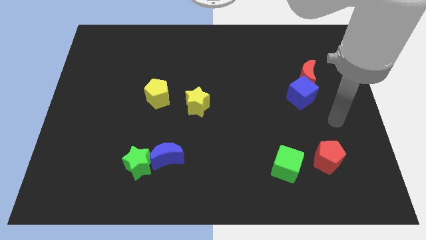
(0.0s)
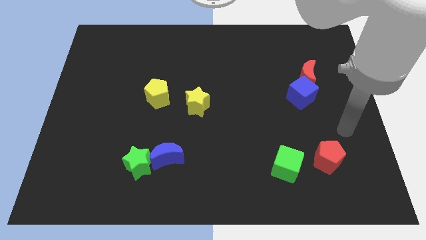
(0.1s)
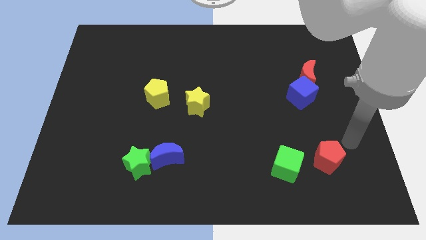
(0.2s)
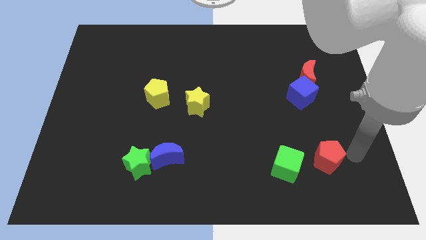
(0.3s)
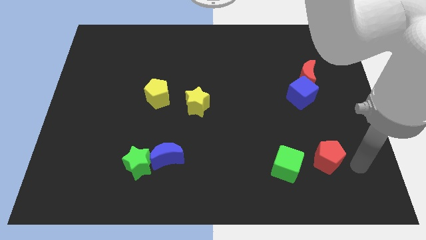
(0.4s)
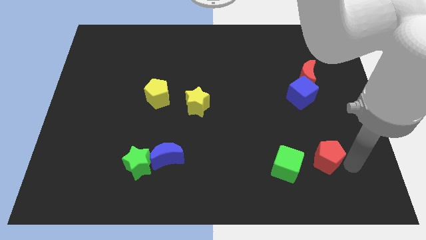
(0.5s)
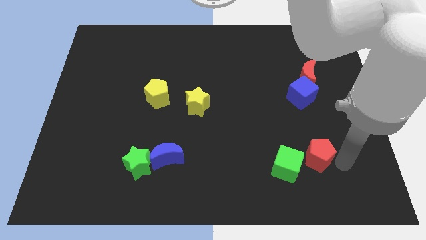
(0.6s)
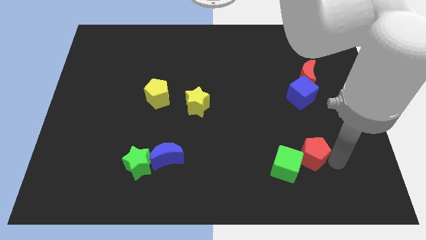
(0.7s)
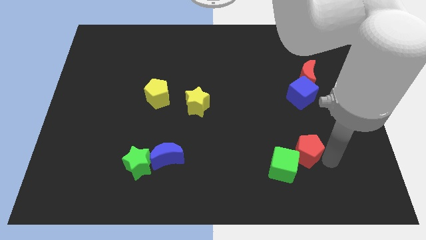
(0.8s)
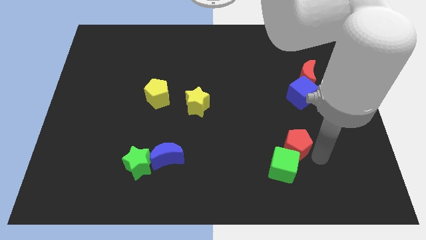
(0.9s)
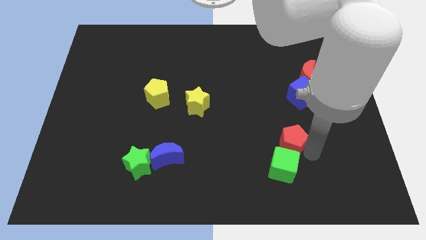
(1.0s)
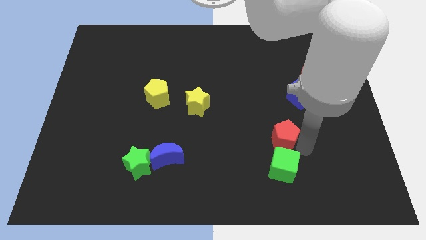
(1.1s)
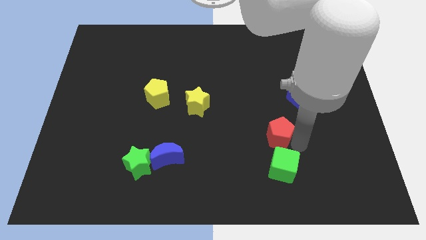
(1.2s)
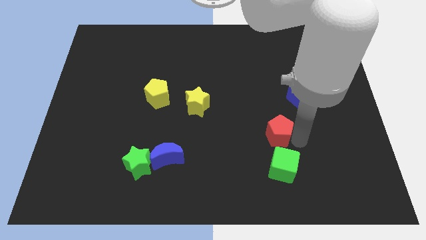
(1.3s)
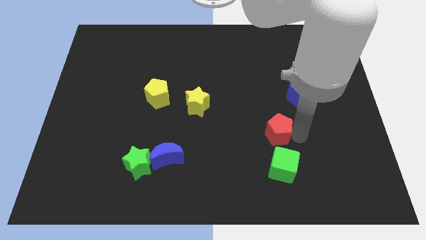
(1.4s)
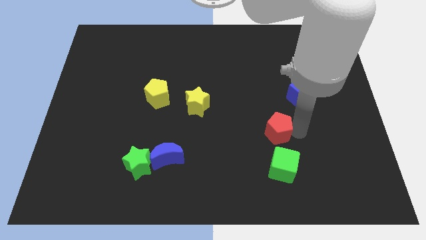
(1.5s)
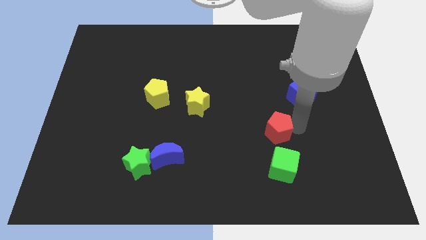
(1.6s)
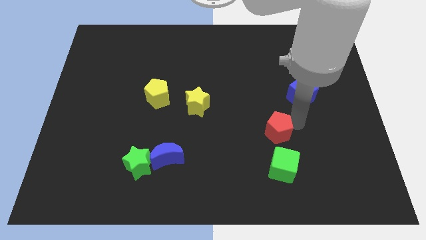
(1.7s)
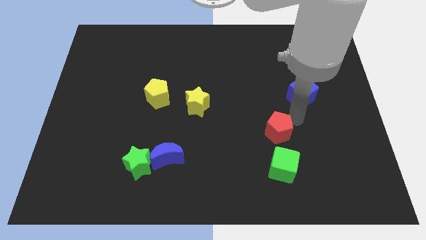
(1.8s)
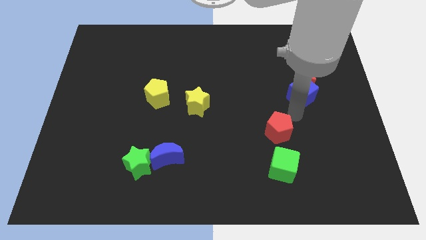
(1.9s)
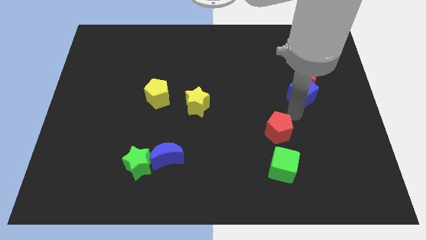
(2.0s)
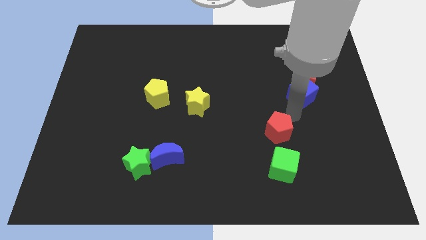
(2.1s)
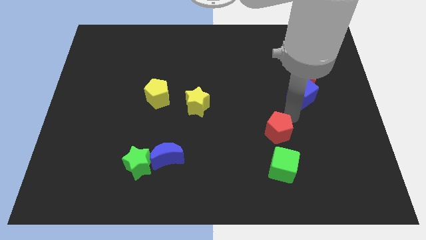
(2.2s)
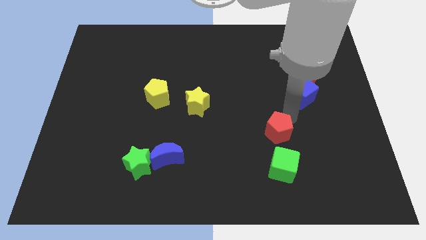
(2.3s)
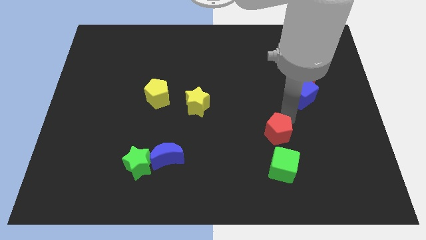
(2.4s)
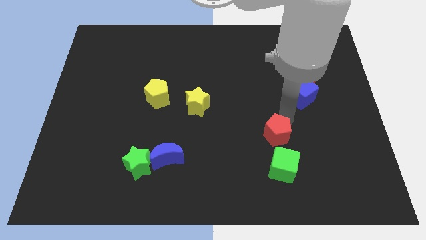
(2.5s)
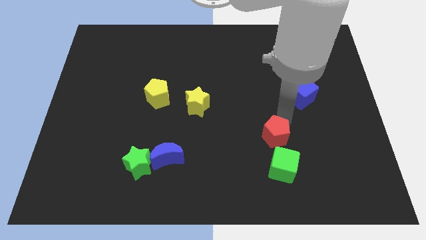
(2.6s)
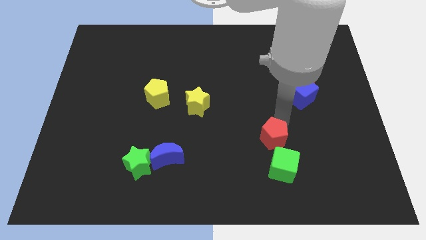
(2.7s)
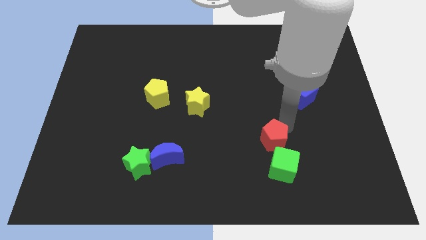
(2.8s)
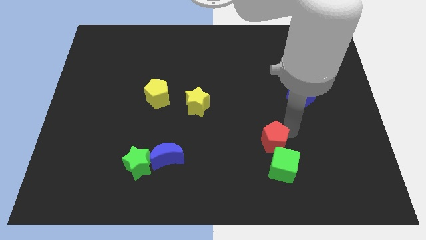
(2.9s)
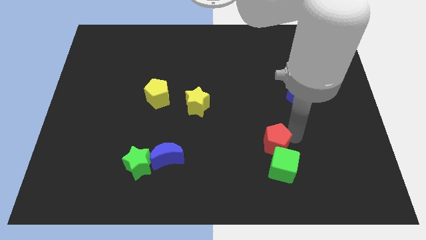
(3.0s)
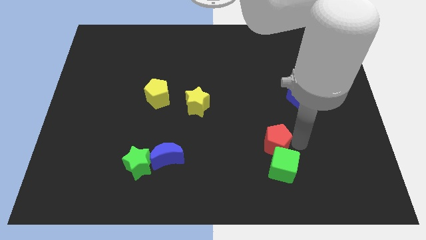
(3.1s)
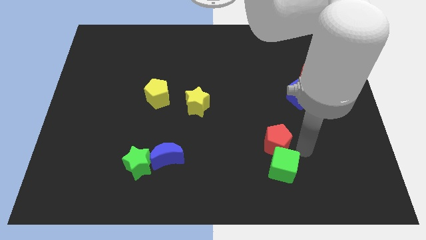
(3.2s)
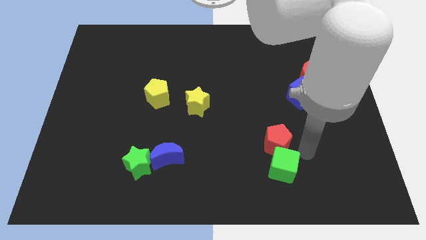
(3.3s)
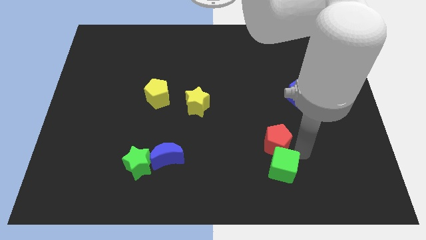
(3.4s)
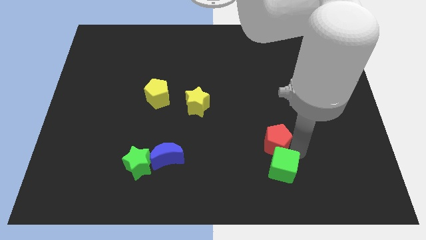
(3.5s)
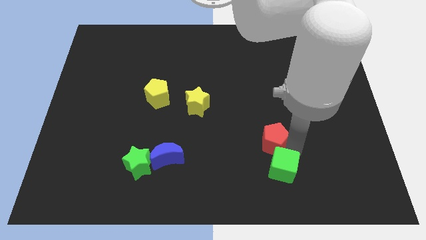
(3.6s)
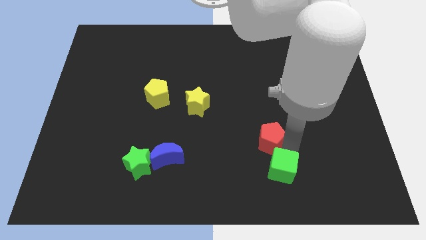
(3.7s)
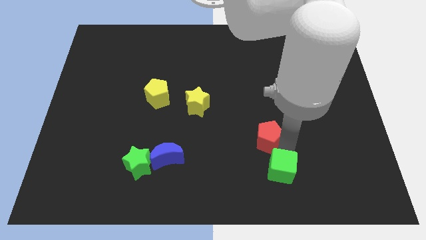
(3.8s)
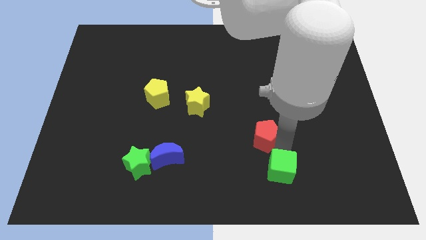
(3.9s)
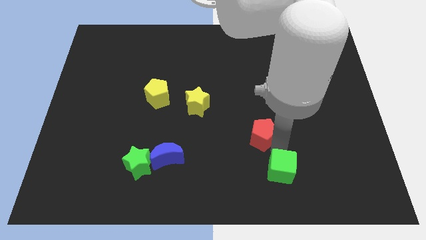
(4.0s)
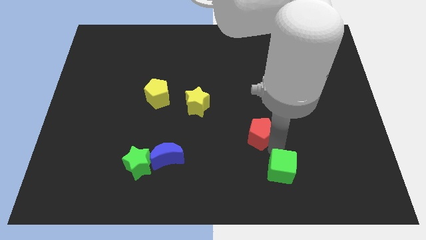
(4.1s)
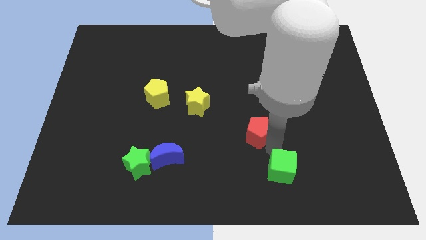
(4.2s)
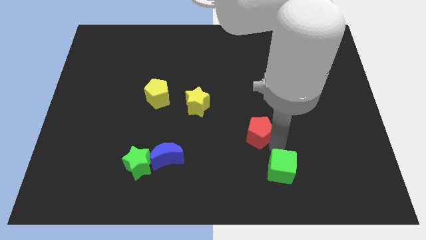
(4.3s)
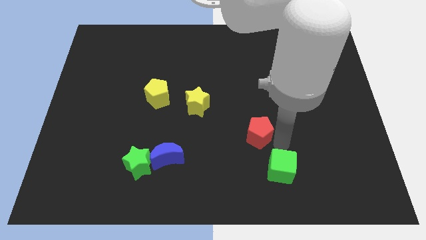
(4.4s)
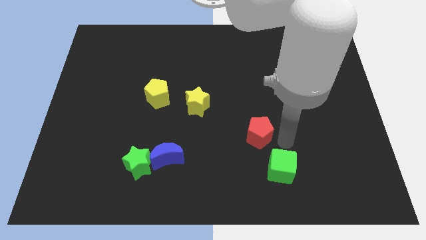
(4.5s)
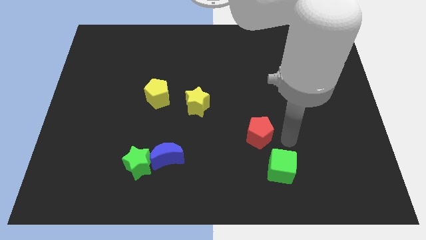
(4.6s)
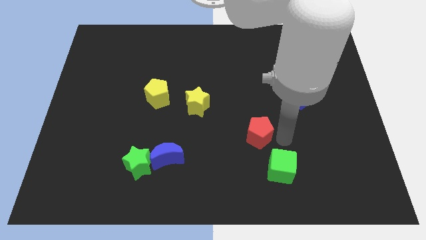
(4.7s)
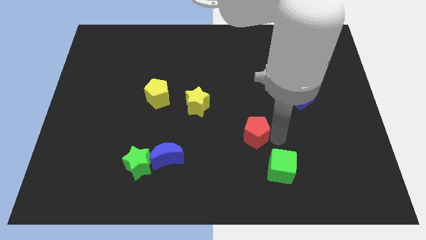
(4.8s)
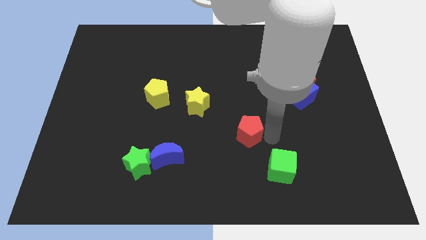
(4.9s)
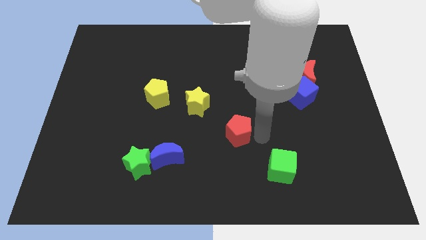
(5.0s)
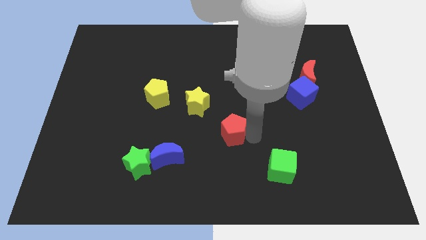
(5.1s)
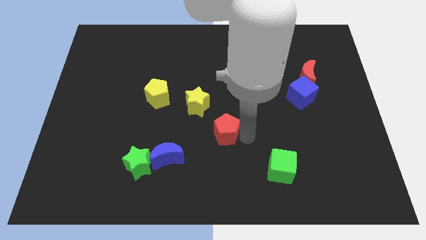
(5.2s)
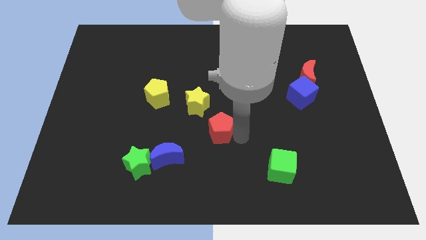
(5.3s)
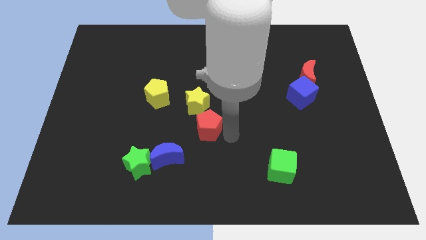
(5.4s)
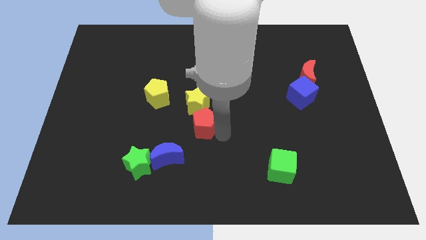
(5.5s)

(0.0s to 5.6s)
put the red pentagon towards the yellow star
